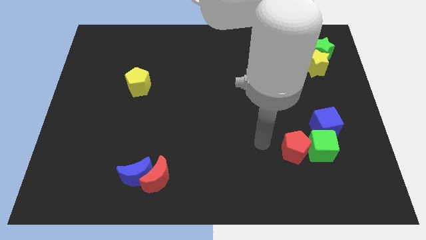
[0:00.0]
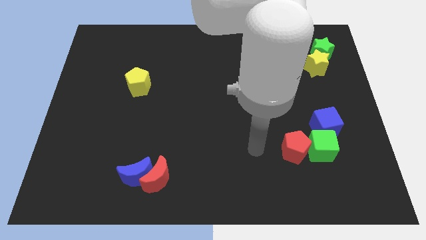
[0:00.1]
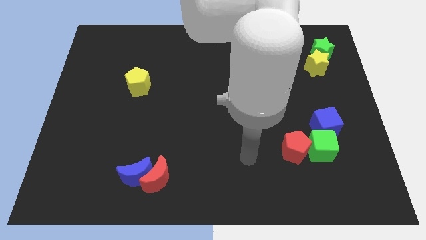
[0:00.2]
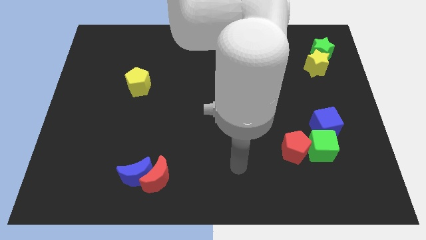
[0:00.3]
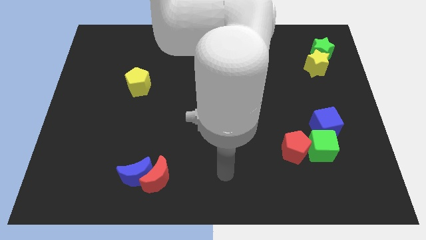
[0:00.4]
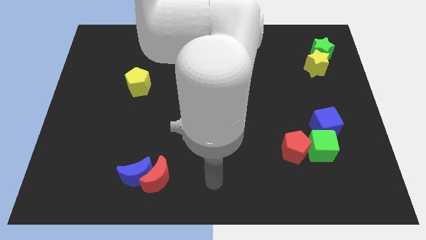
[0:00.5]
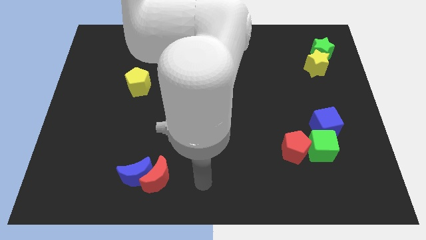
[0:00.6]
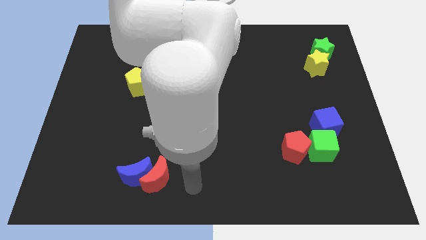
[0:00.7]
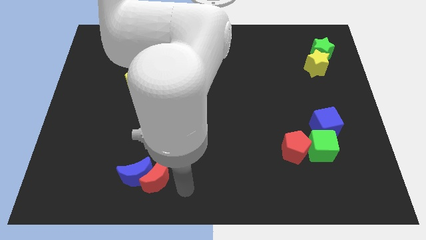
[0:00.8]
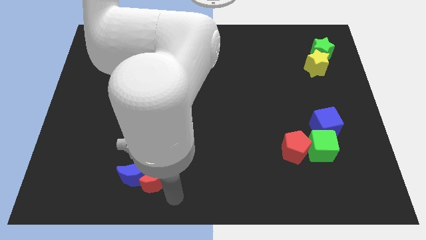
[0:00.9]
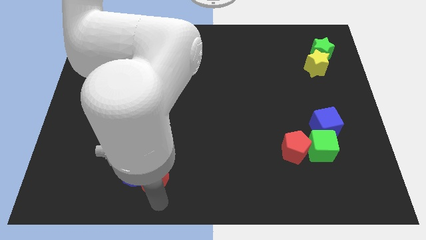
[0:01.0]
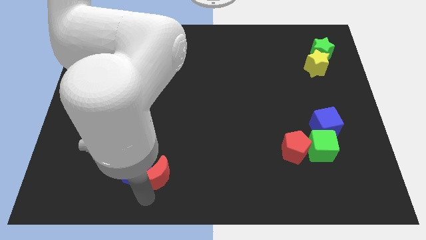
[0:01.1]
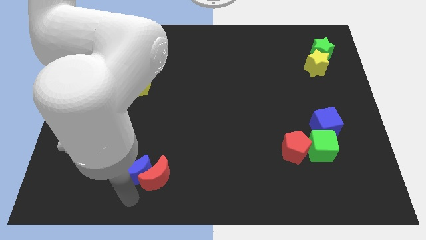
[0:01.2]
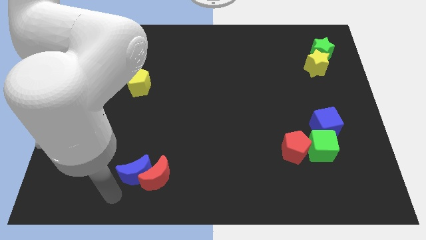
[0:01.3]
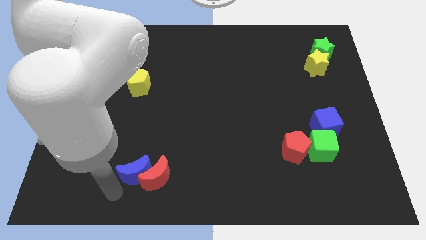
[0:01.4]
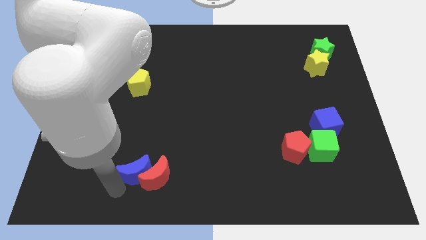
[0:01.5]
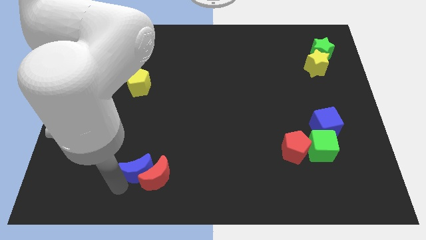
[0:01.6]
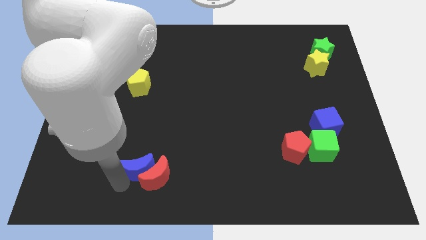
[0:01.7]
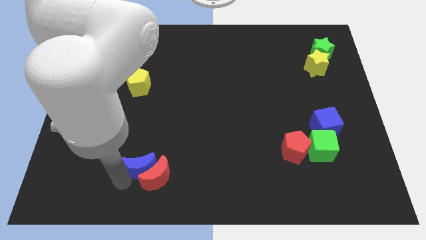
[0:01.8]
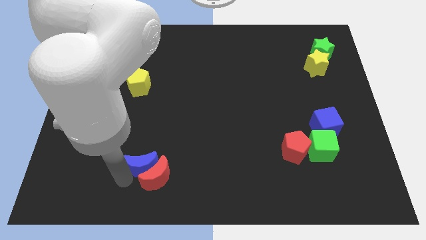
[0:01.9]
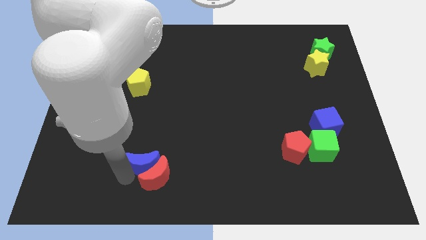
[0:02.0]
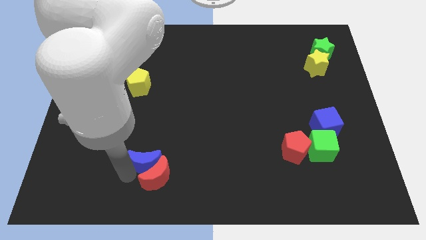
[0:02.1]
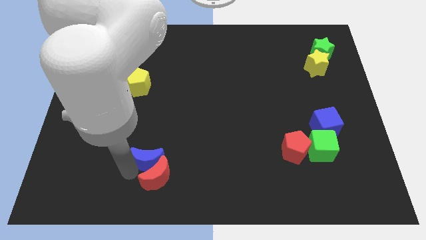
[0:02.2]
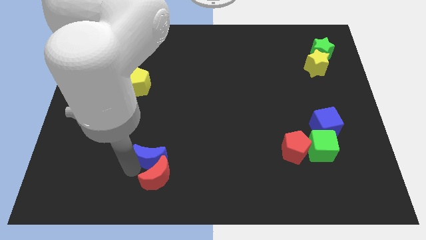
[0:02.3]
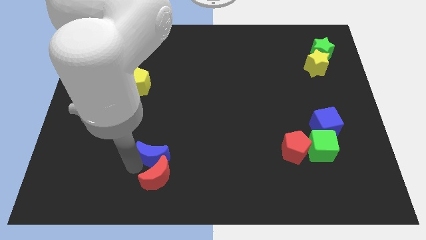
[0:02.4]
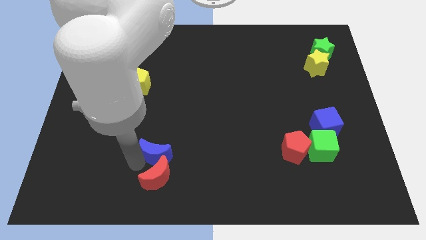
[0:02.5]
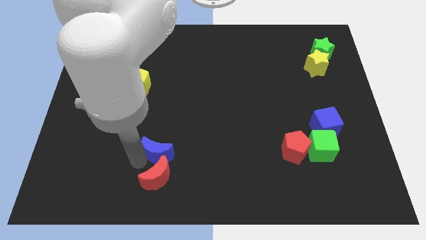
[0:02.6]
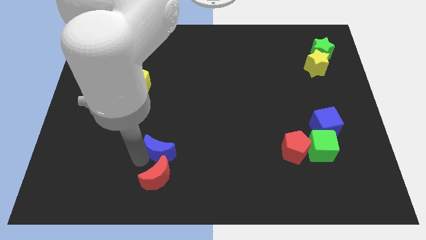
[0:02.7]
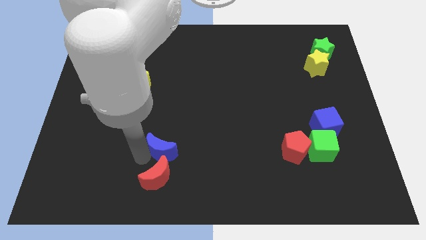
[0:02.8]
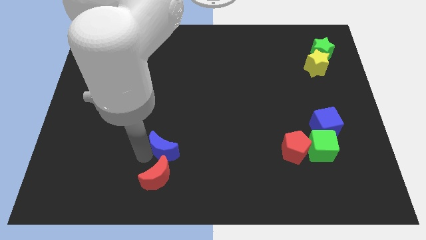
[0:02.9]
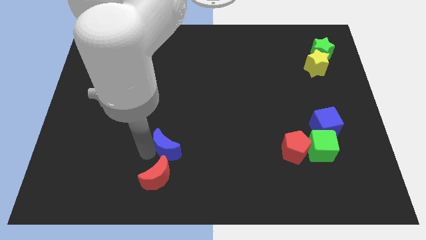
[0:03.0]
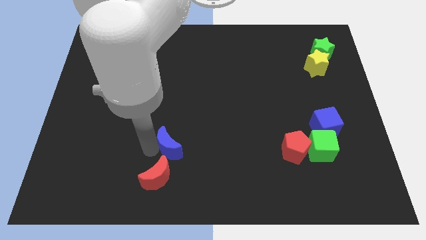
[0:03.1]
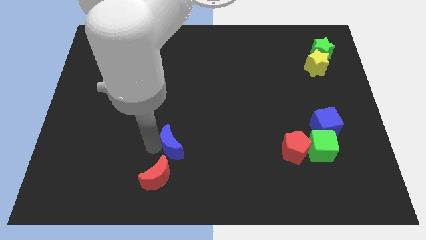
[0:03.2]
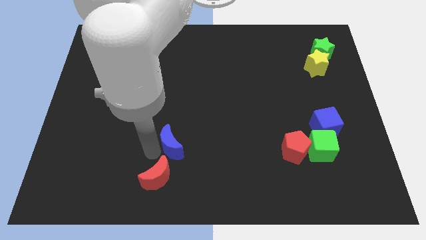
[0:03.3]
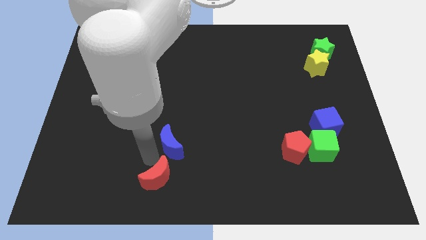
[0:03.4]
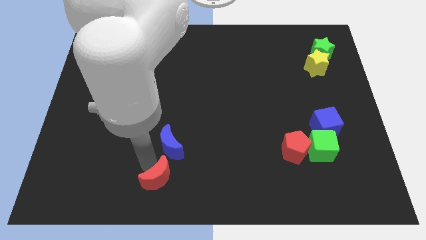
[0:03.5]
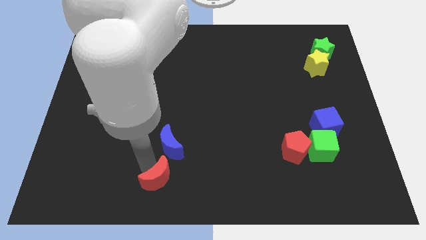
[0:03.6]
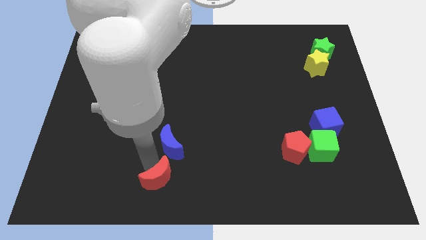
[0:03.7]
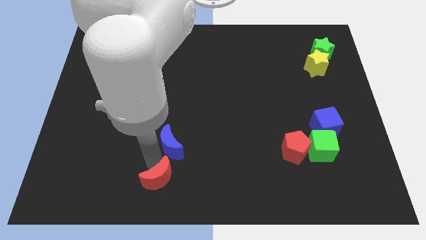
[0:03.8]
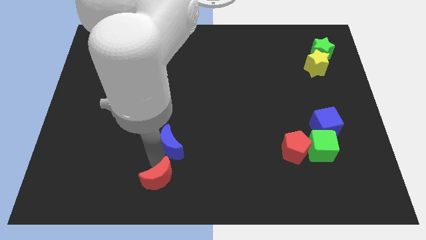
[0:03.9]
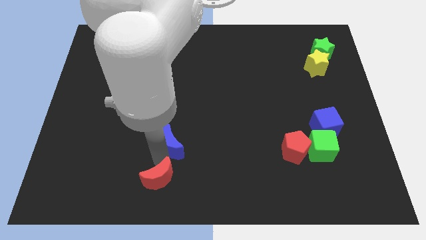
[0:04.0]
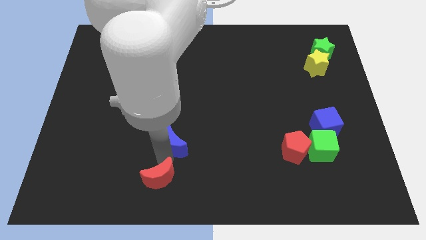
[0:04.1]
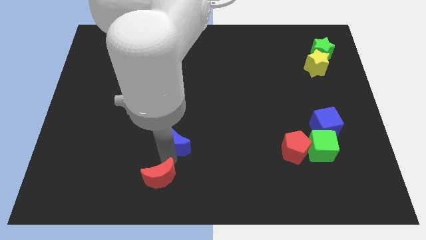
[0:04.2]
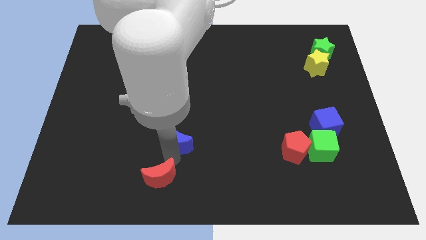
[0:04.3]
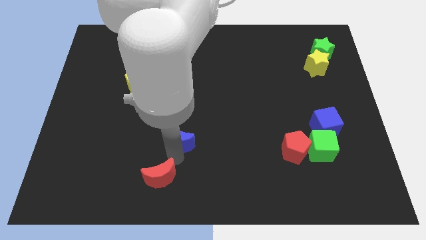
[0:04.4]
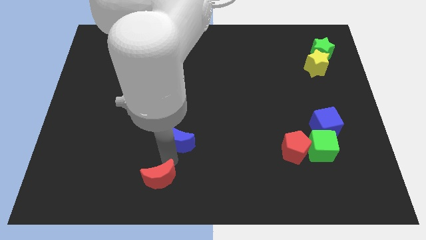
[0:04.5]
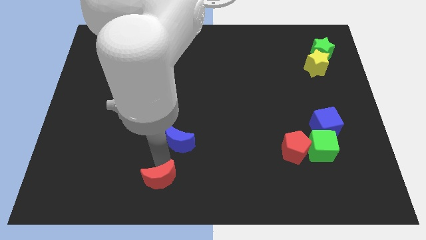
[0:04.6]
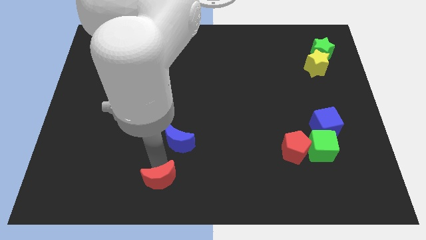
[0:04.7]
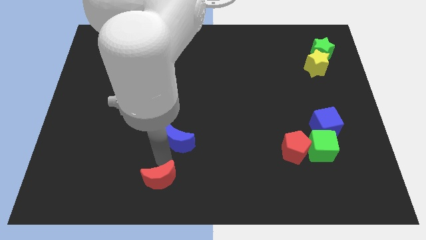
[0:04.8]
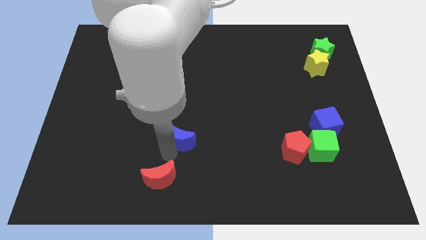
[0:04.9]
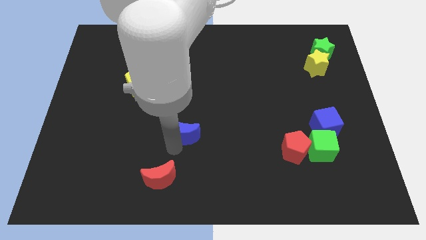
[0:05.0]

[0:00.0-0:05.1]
put the blue moon to the center

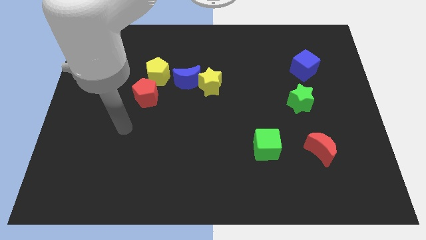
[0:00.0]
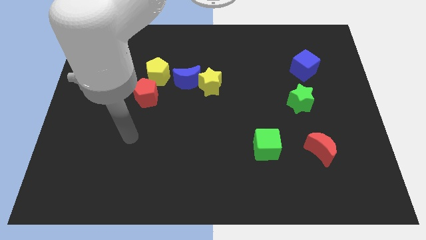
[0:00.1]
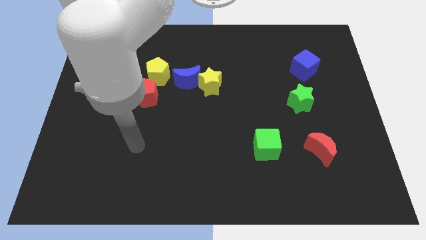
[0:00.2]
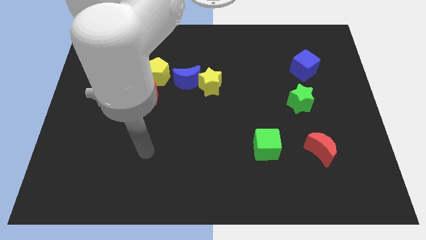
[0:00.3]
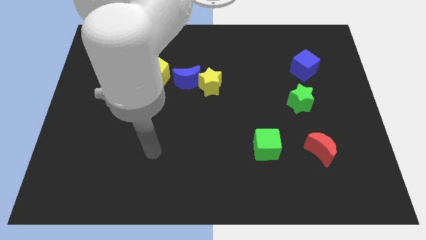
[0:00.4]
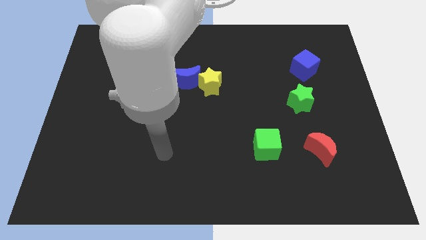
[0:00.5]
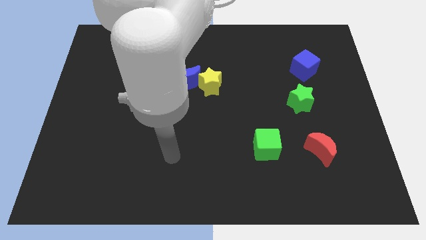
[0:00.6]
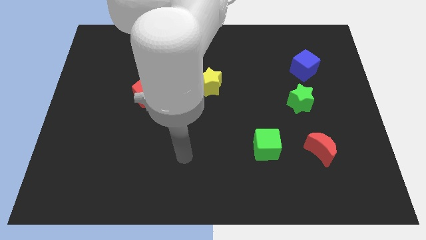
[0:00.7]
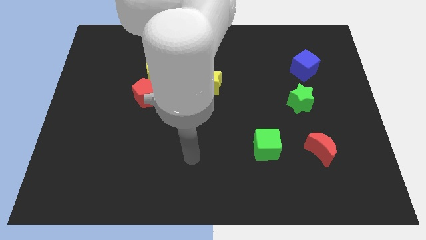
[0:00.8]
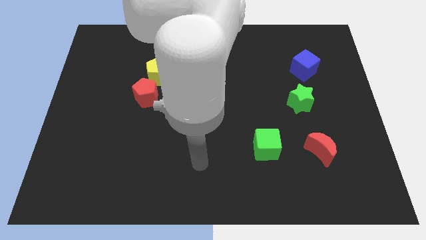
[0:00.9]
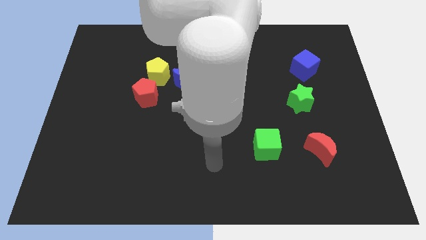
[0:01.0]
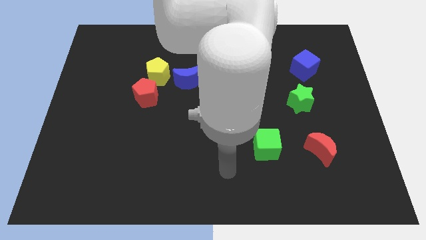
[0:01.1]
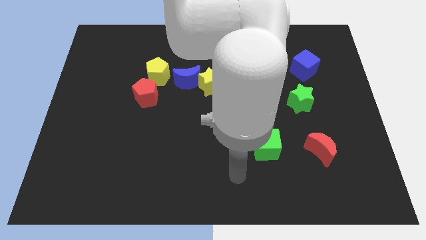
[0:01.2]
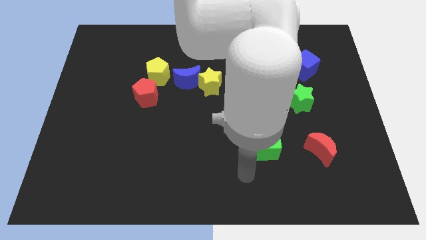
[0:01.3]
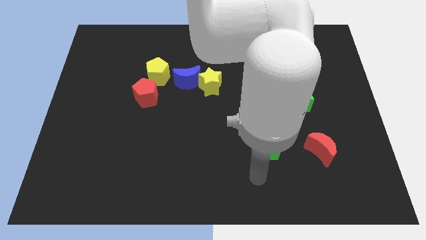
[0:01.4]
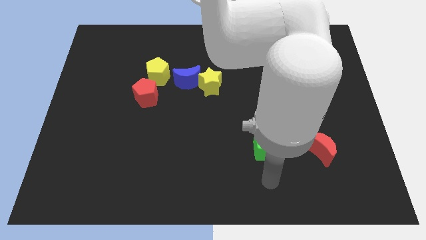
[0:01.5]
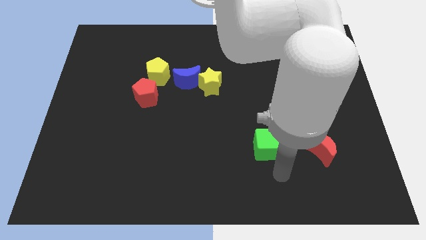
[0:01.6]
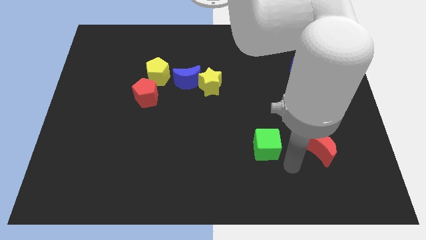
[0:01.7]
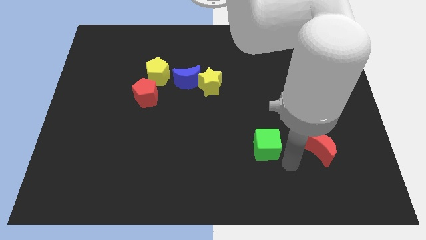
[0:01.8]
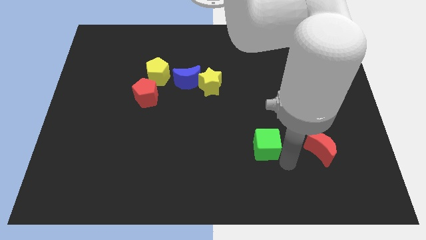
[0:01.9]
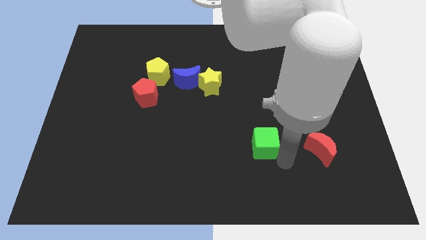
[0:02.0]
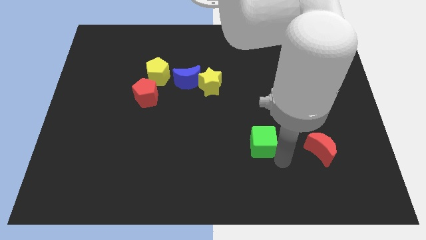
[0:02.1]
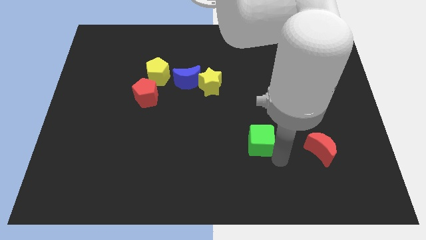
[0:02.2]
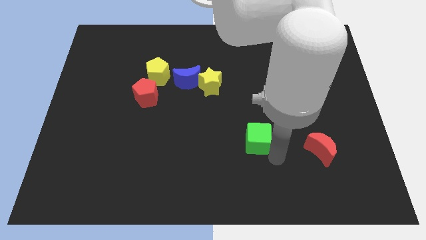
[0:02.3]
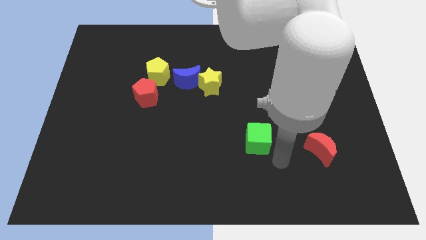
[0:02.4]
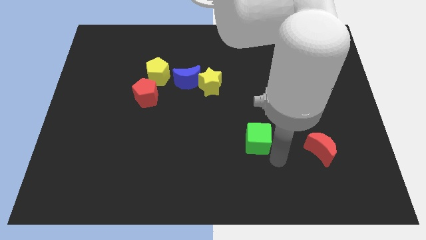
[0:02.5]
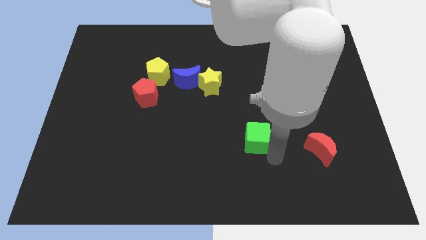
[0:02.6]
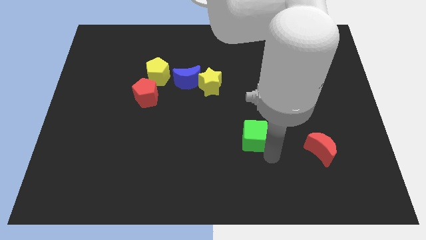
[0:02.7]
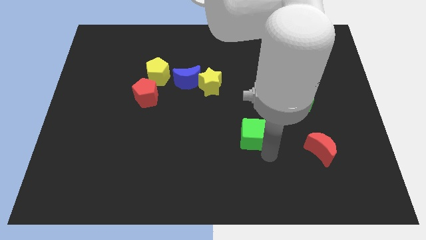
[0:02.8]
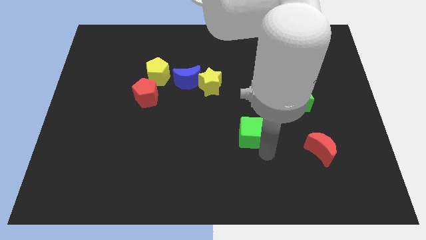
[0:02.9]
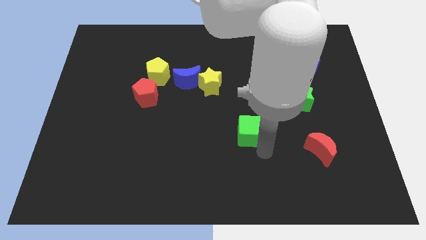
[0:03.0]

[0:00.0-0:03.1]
move the green cube to the middle
